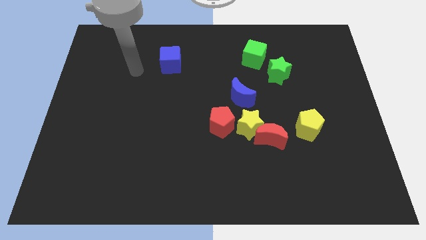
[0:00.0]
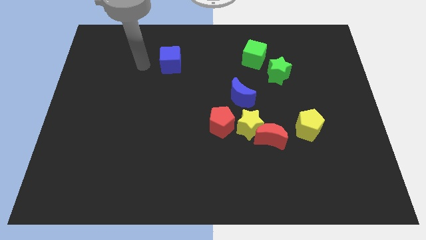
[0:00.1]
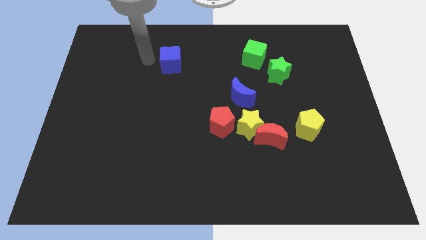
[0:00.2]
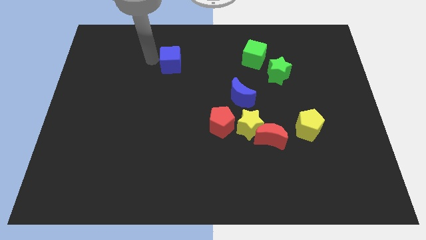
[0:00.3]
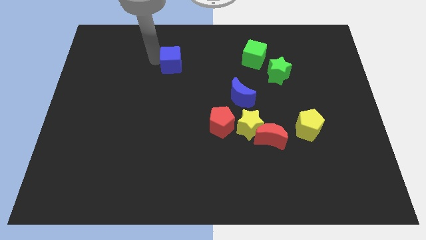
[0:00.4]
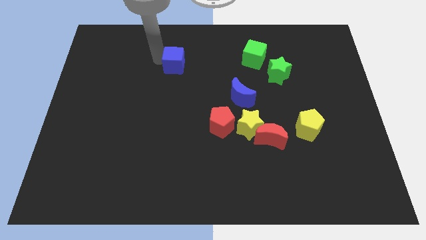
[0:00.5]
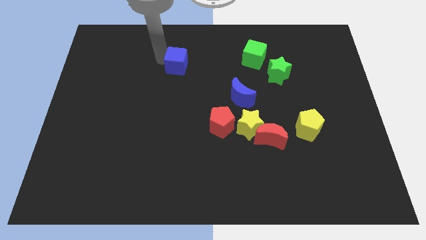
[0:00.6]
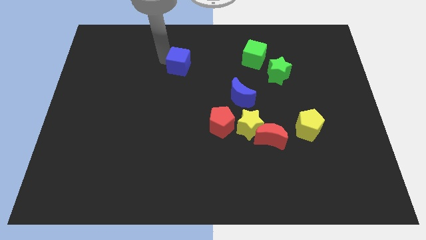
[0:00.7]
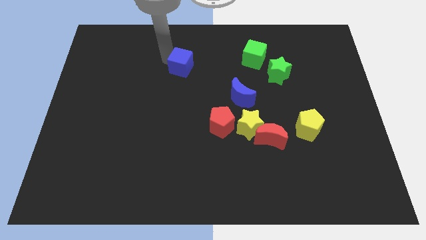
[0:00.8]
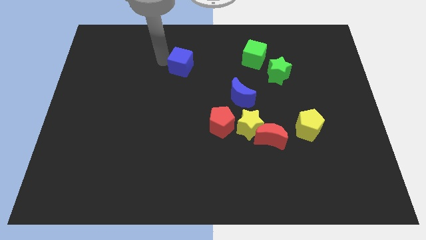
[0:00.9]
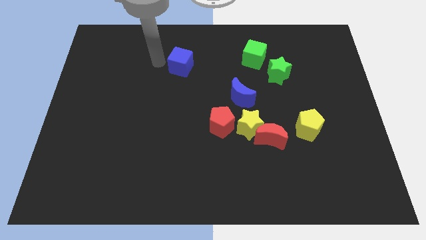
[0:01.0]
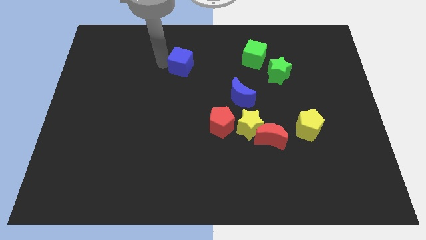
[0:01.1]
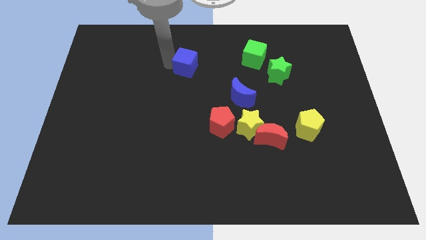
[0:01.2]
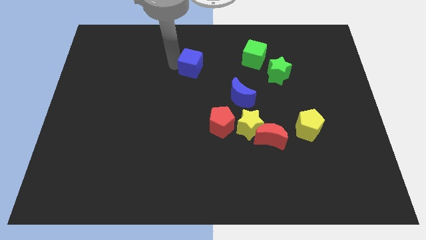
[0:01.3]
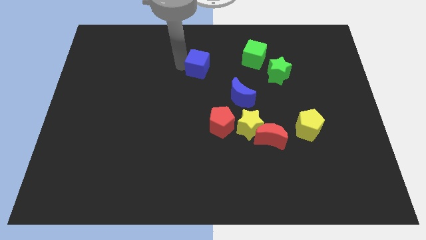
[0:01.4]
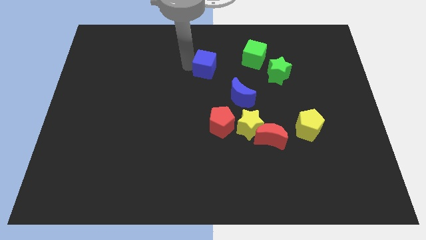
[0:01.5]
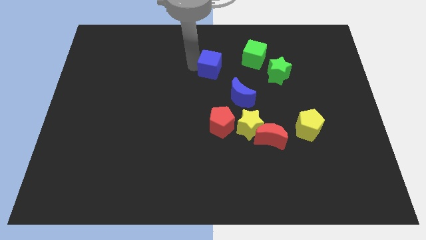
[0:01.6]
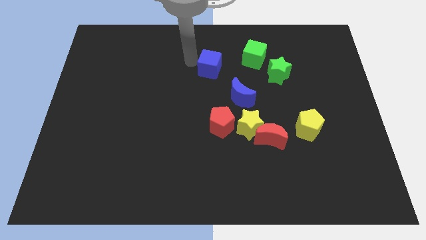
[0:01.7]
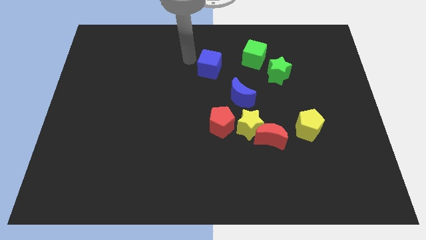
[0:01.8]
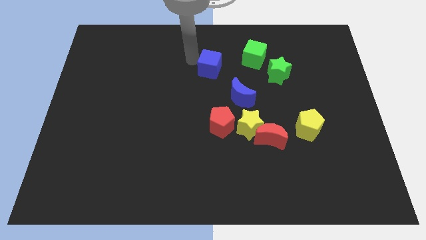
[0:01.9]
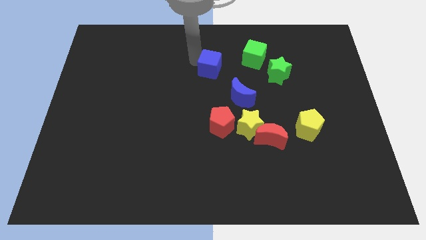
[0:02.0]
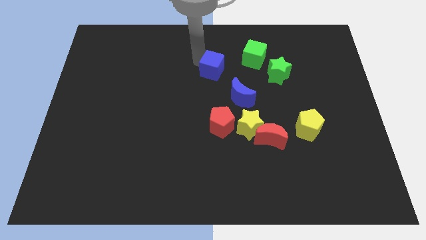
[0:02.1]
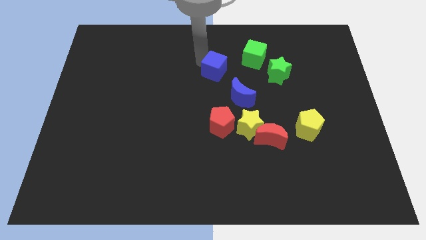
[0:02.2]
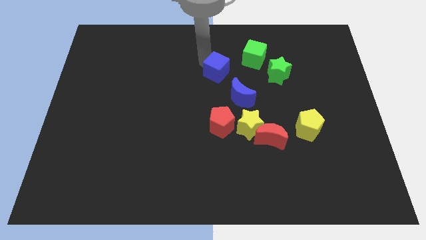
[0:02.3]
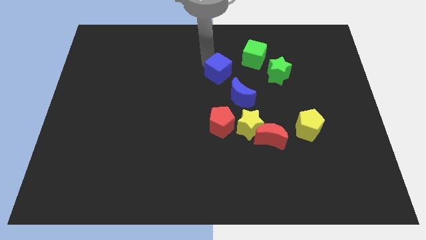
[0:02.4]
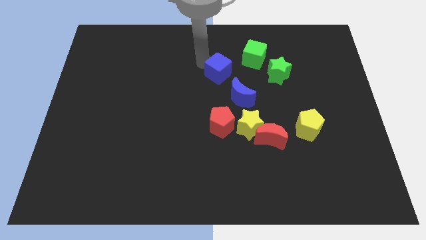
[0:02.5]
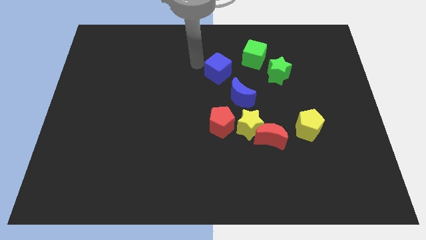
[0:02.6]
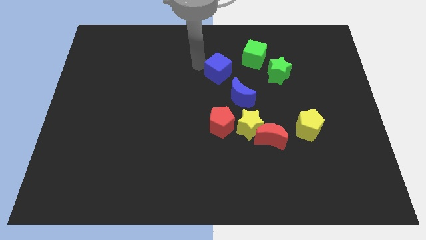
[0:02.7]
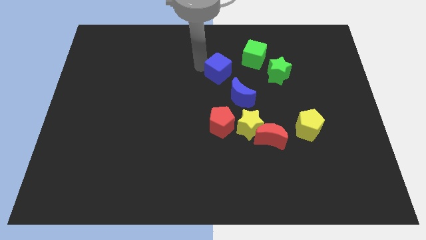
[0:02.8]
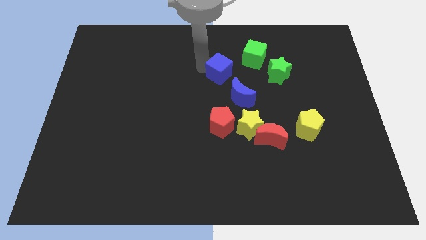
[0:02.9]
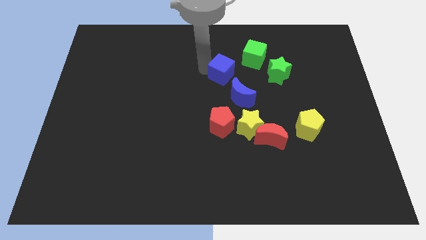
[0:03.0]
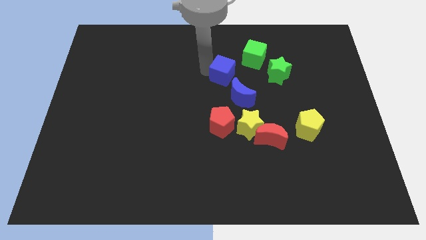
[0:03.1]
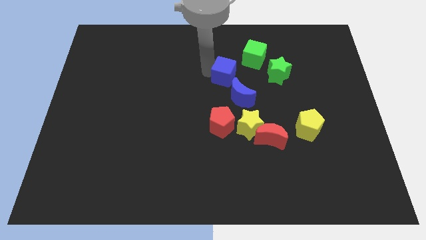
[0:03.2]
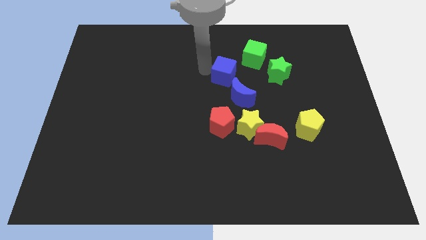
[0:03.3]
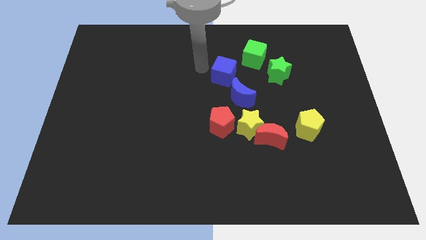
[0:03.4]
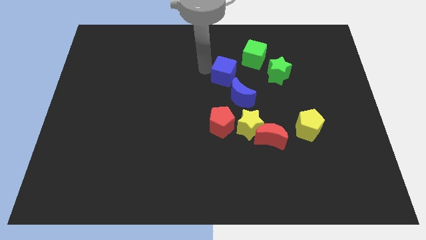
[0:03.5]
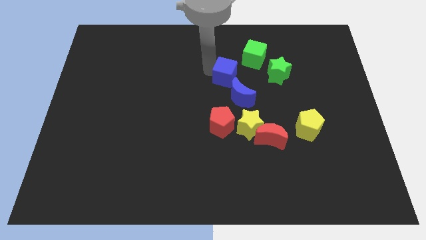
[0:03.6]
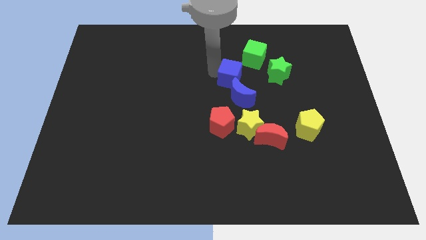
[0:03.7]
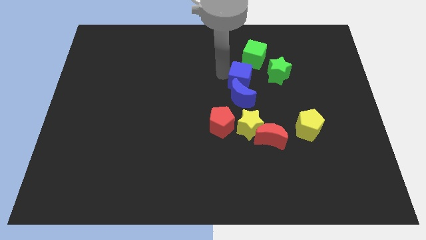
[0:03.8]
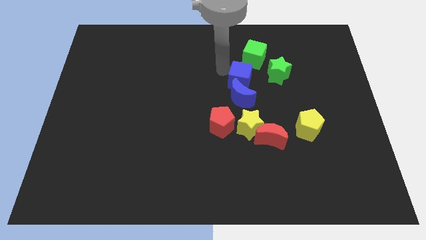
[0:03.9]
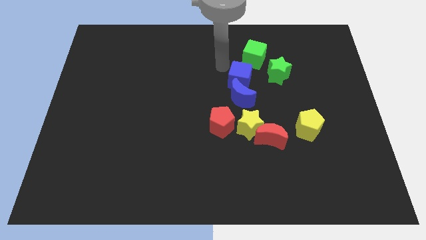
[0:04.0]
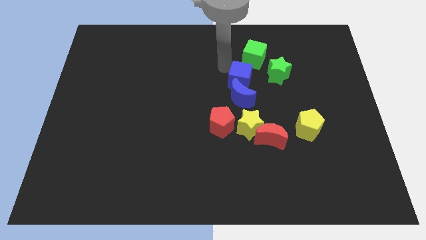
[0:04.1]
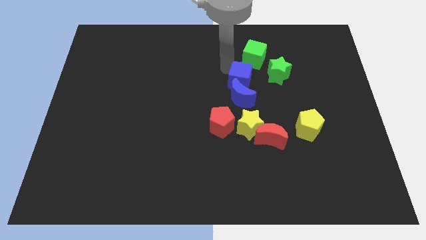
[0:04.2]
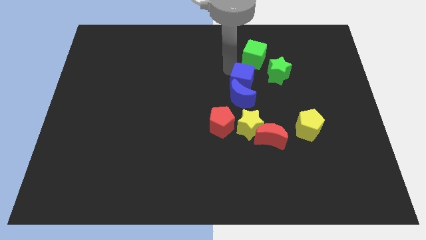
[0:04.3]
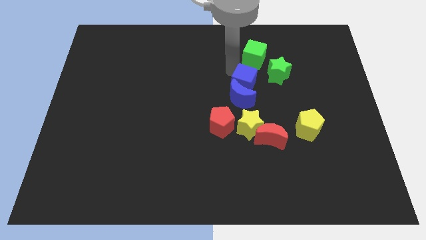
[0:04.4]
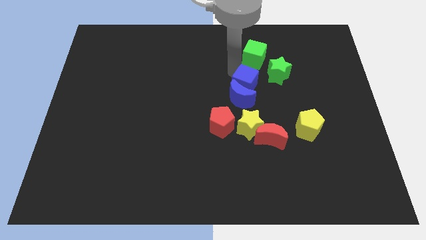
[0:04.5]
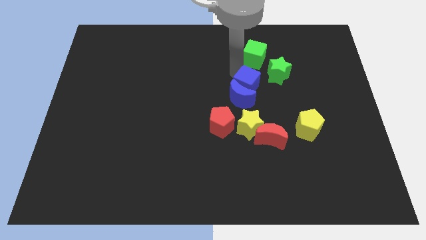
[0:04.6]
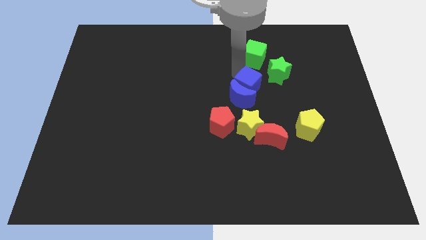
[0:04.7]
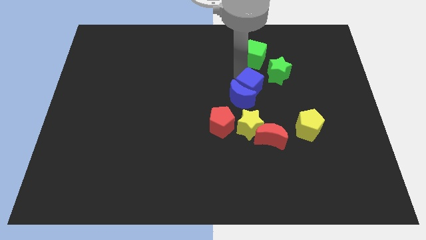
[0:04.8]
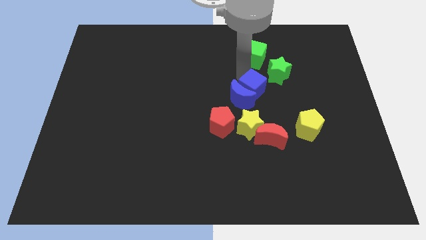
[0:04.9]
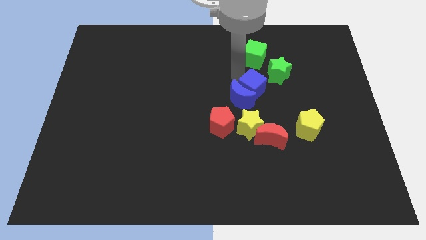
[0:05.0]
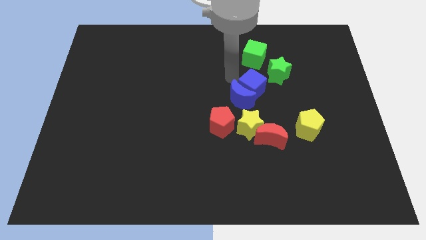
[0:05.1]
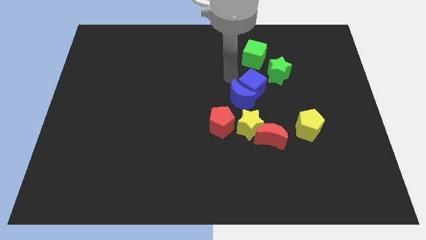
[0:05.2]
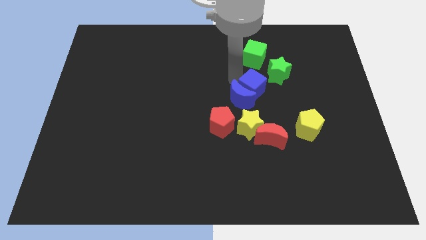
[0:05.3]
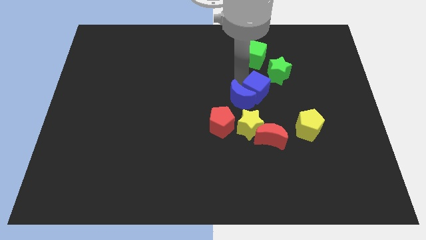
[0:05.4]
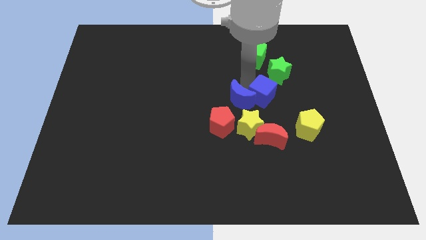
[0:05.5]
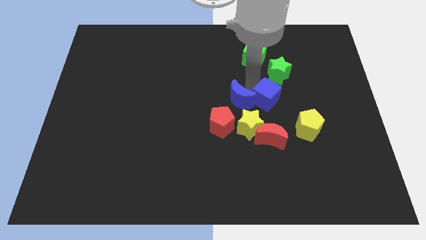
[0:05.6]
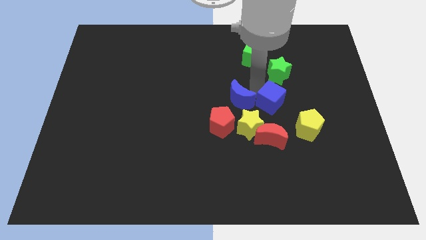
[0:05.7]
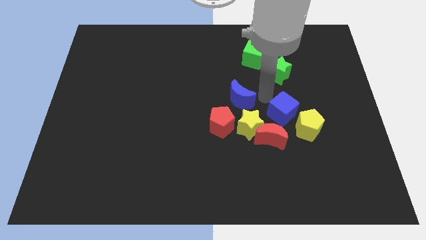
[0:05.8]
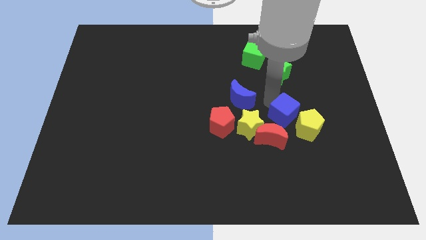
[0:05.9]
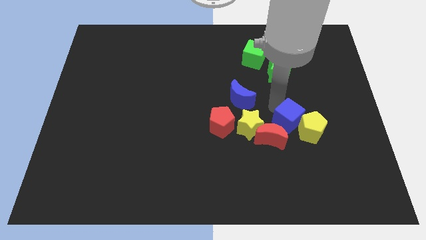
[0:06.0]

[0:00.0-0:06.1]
move the blue cube towards the yellow pentagon
